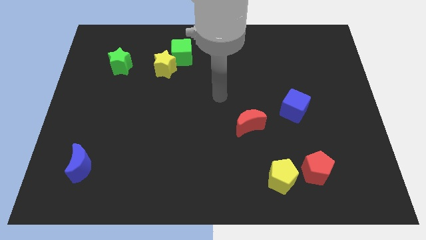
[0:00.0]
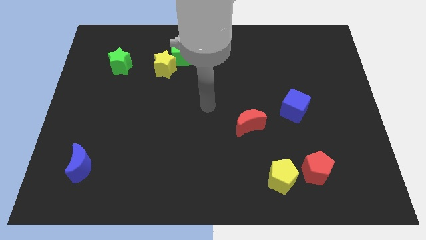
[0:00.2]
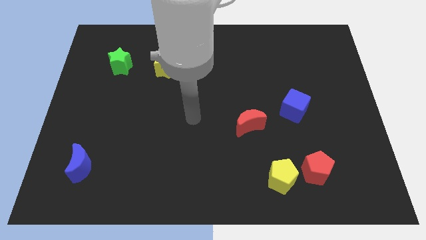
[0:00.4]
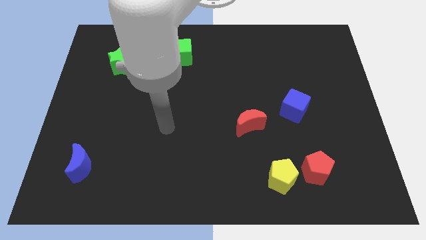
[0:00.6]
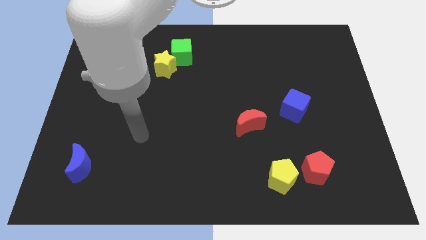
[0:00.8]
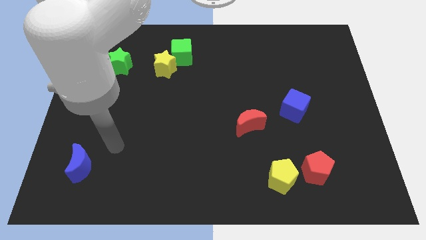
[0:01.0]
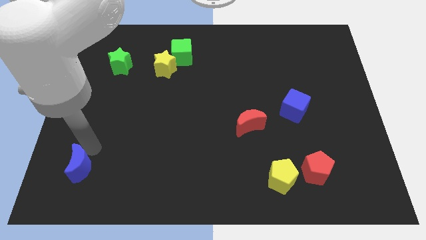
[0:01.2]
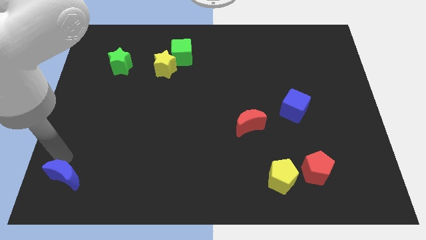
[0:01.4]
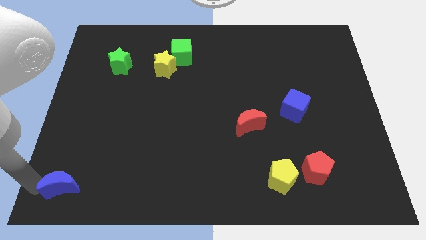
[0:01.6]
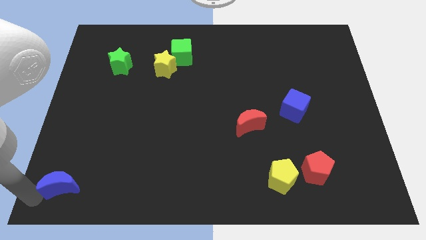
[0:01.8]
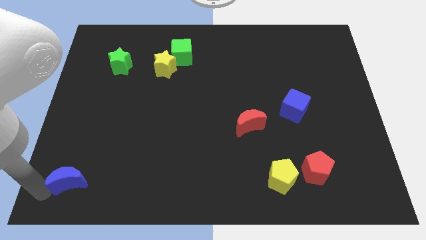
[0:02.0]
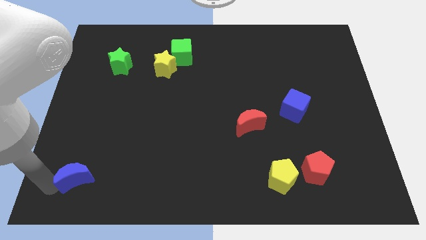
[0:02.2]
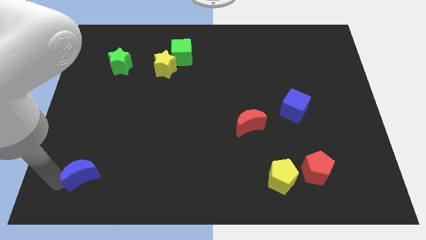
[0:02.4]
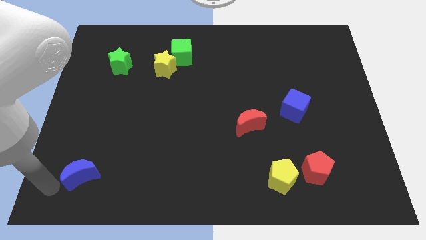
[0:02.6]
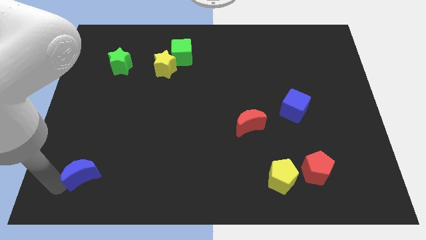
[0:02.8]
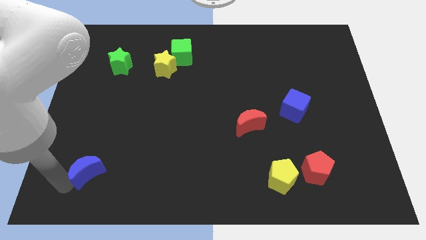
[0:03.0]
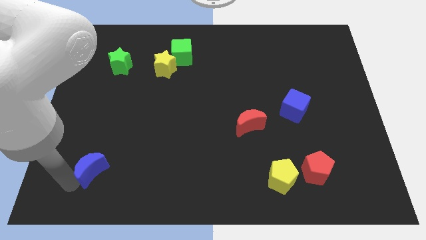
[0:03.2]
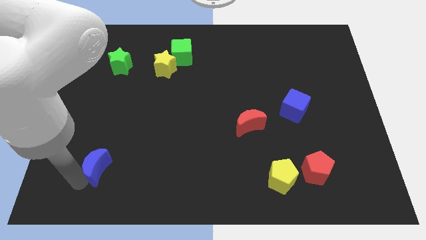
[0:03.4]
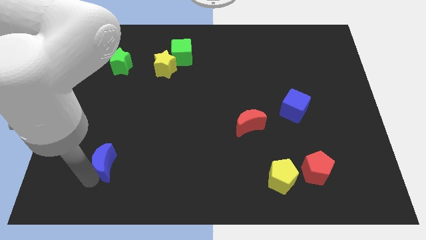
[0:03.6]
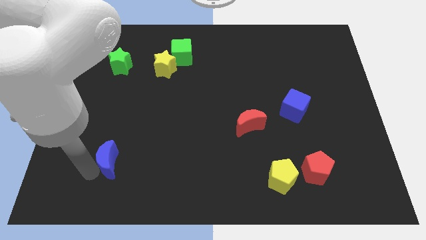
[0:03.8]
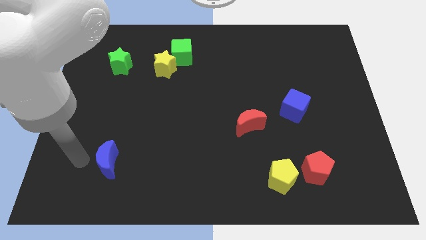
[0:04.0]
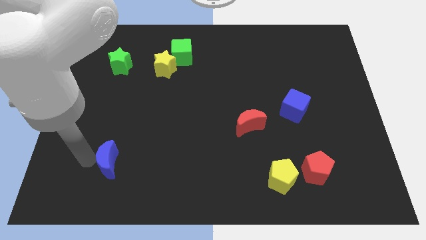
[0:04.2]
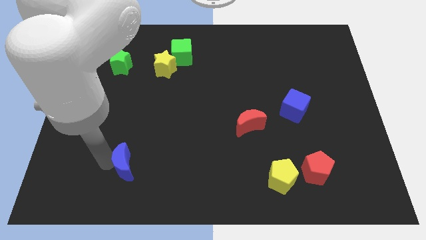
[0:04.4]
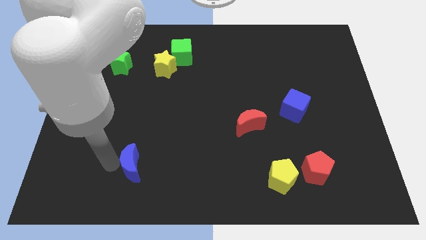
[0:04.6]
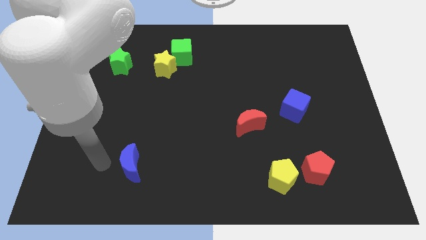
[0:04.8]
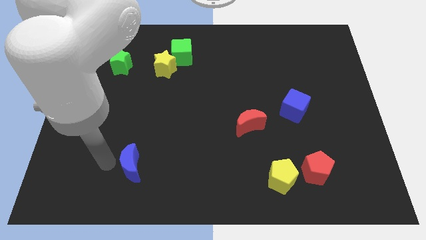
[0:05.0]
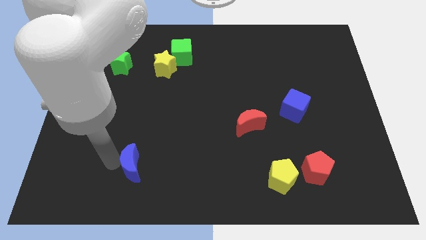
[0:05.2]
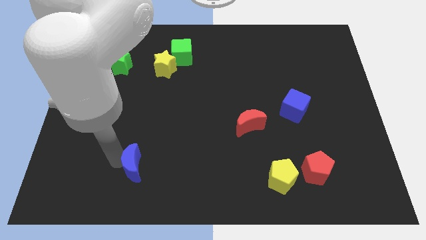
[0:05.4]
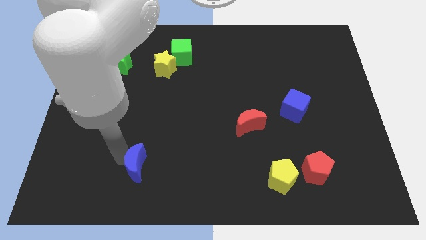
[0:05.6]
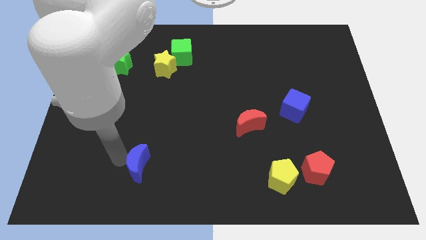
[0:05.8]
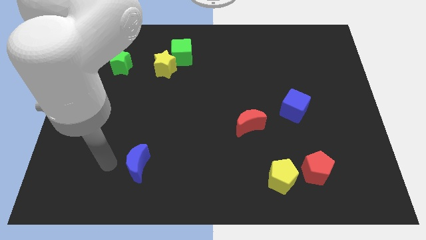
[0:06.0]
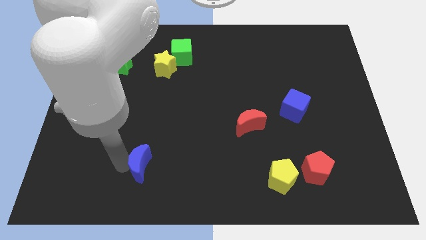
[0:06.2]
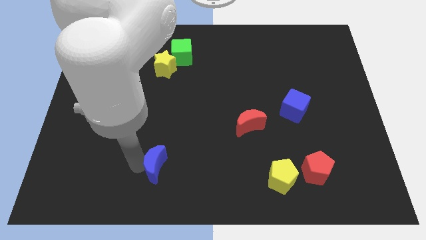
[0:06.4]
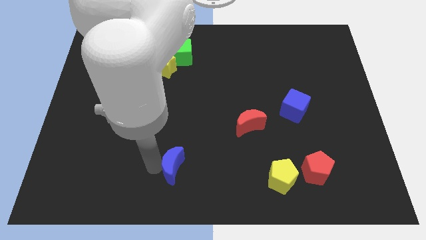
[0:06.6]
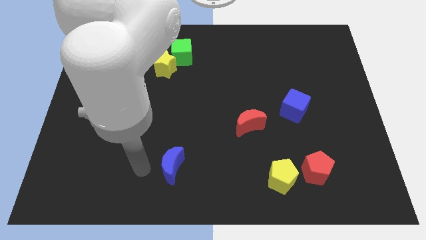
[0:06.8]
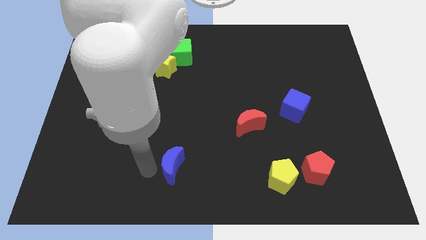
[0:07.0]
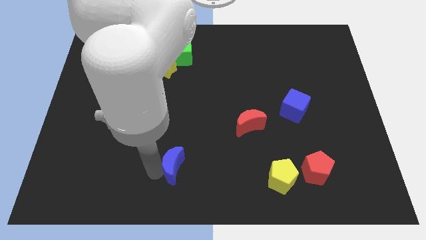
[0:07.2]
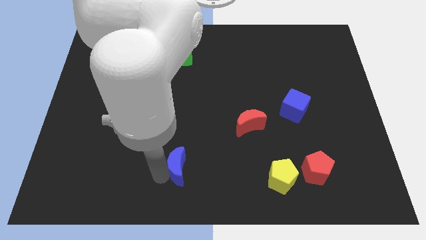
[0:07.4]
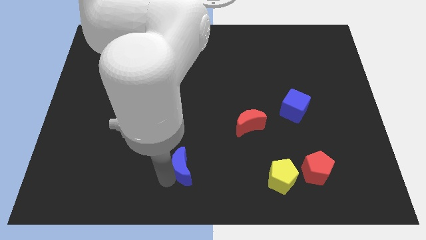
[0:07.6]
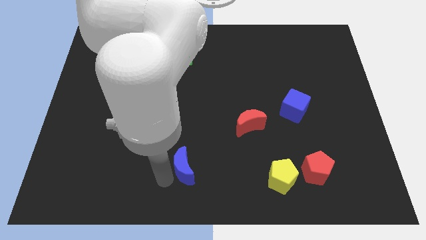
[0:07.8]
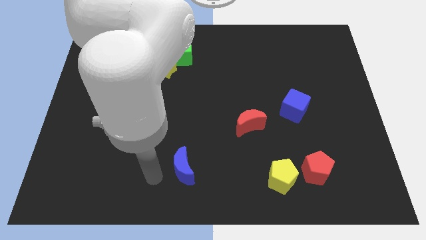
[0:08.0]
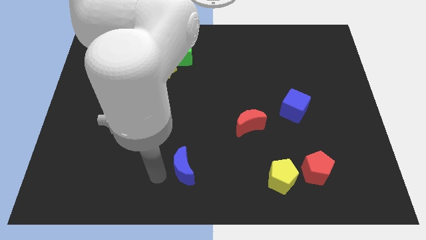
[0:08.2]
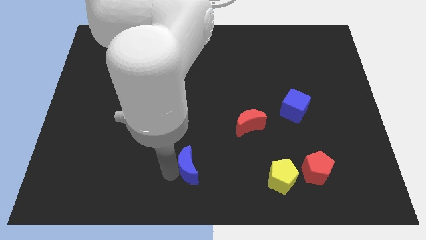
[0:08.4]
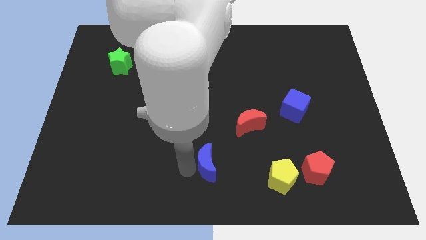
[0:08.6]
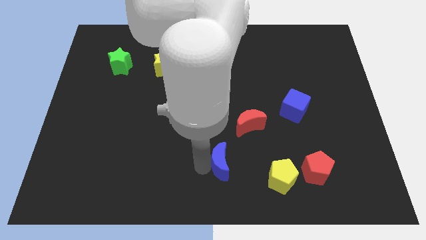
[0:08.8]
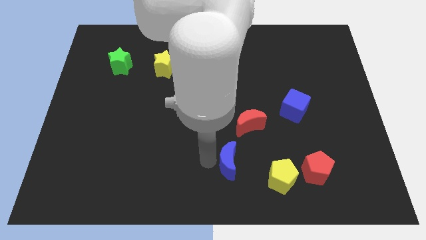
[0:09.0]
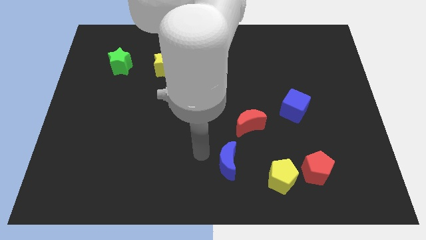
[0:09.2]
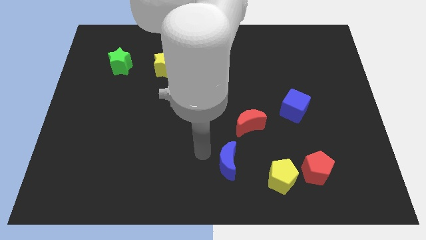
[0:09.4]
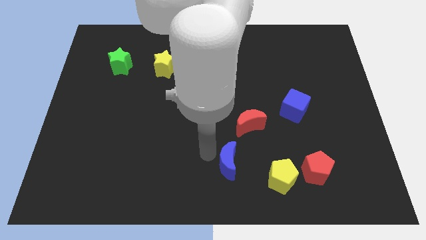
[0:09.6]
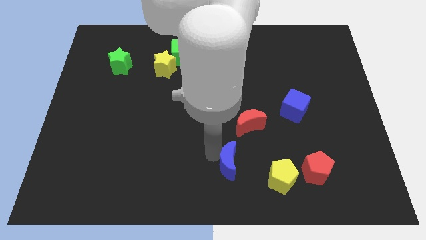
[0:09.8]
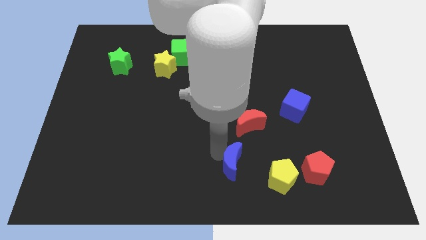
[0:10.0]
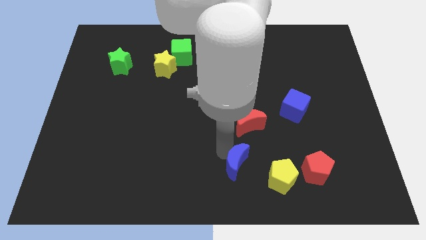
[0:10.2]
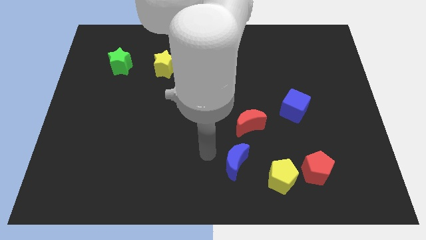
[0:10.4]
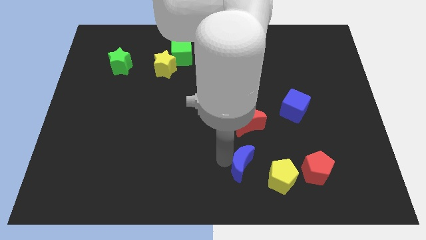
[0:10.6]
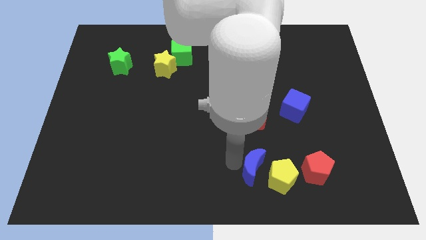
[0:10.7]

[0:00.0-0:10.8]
put the blue moon towards the yellow pentagon

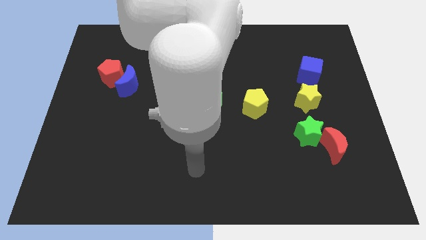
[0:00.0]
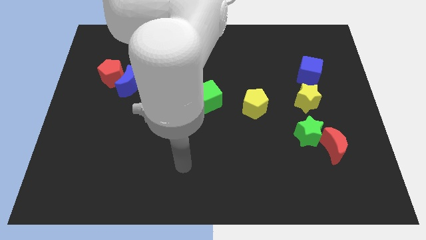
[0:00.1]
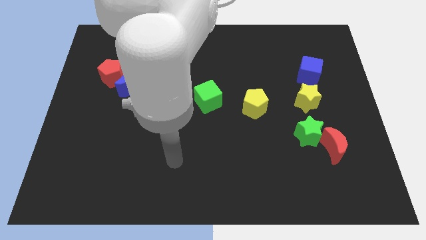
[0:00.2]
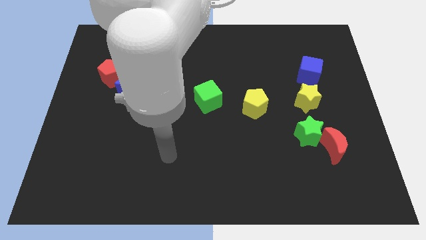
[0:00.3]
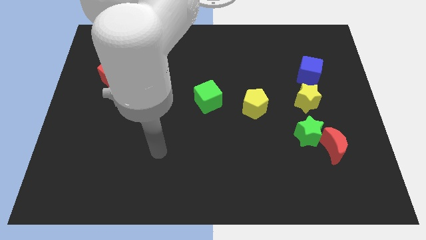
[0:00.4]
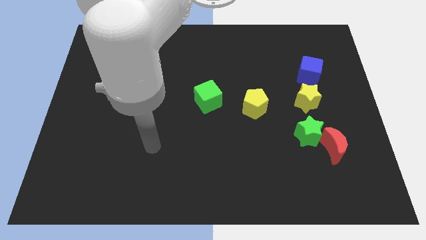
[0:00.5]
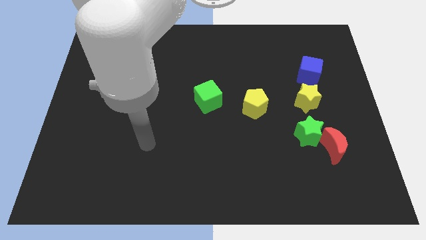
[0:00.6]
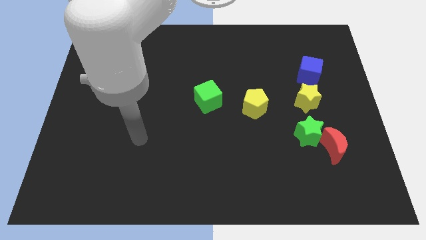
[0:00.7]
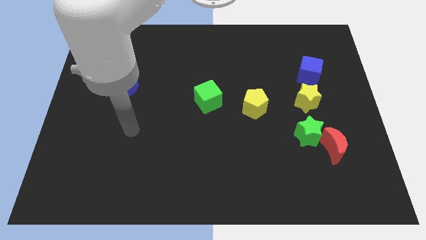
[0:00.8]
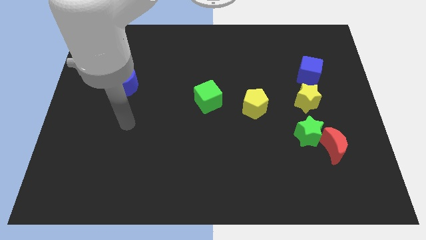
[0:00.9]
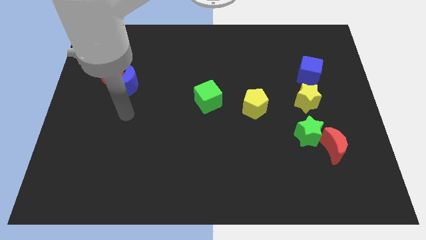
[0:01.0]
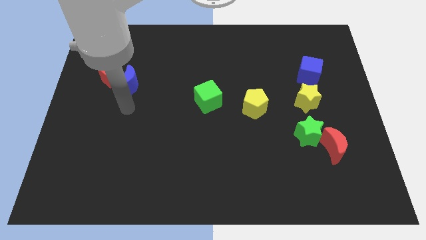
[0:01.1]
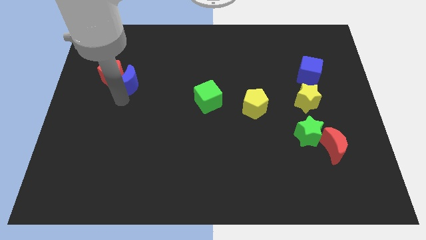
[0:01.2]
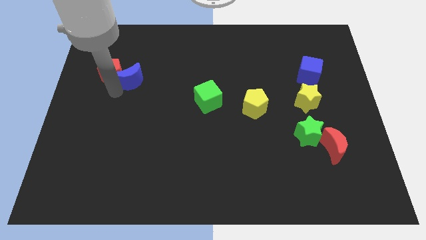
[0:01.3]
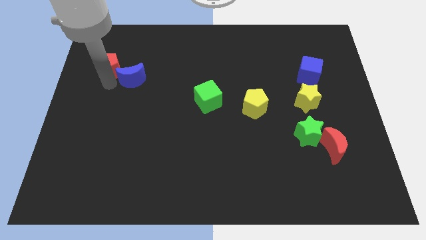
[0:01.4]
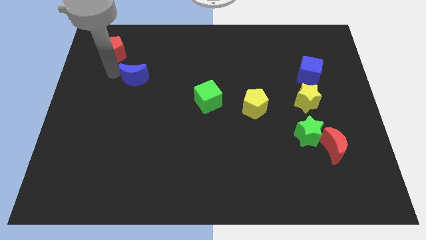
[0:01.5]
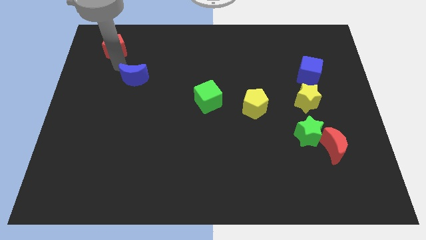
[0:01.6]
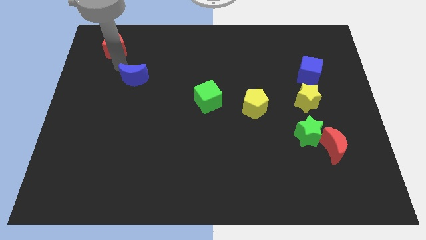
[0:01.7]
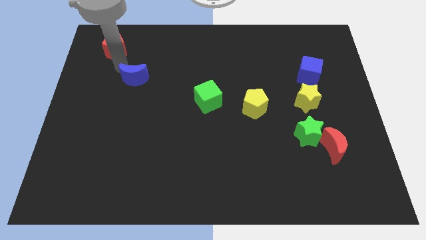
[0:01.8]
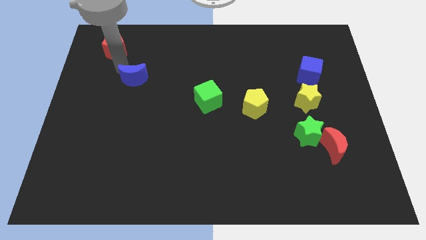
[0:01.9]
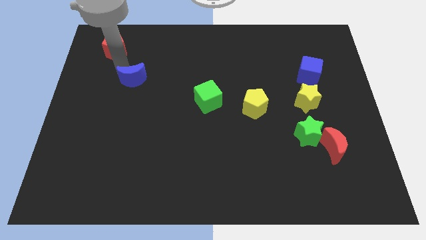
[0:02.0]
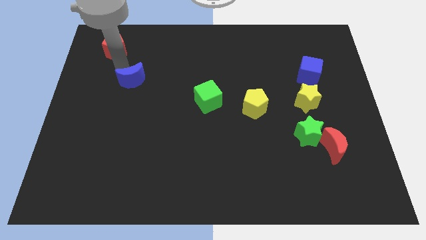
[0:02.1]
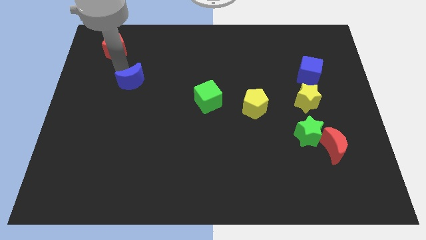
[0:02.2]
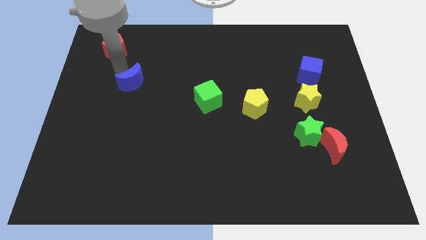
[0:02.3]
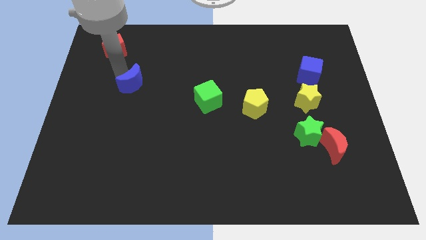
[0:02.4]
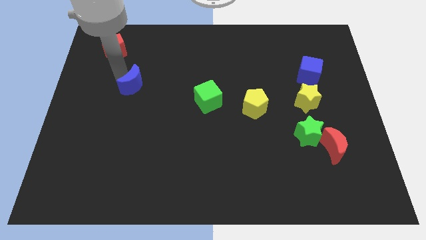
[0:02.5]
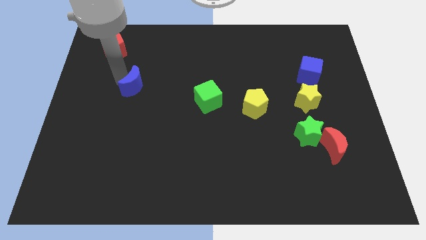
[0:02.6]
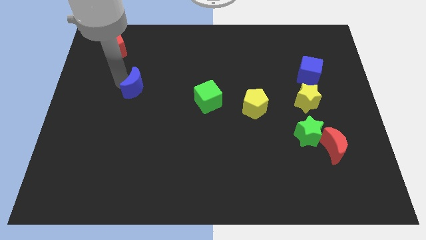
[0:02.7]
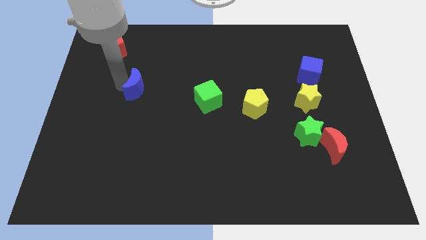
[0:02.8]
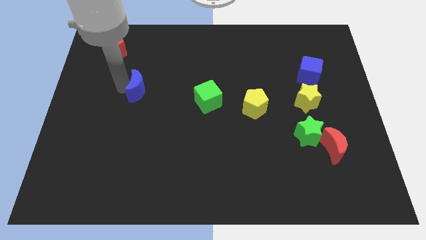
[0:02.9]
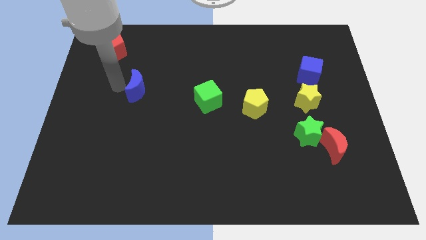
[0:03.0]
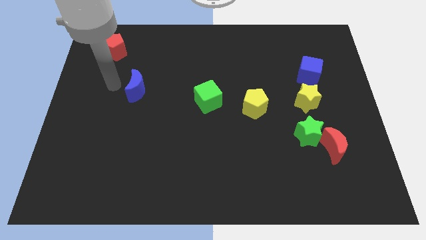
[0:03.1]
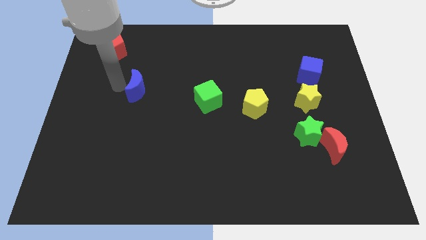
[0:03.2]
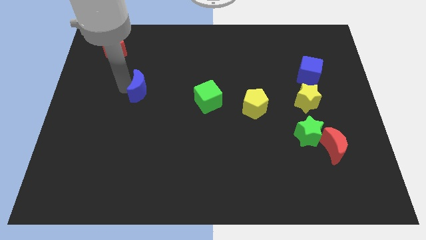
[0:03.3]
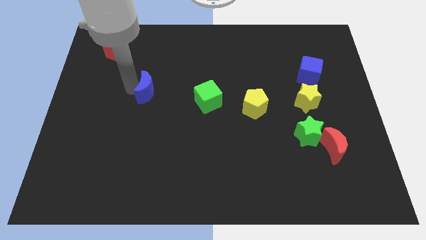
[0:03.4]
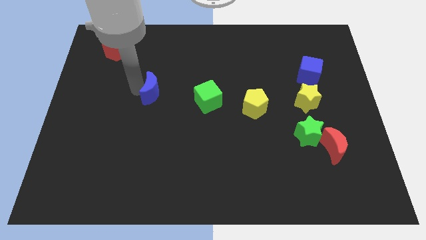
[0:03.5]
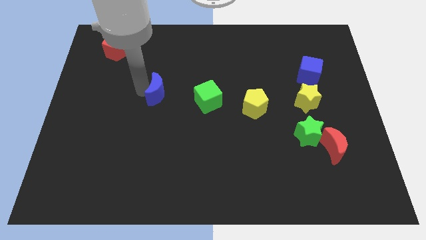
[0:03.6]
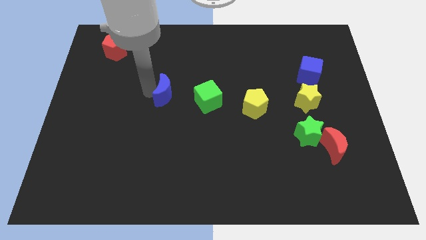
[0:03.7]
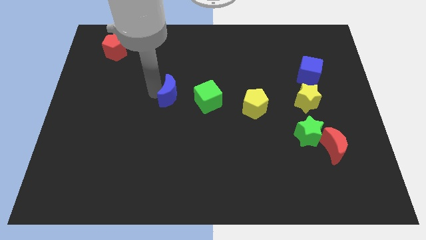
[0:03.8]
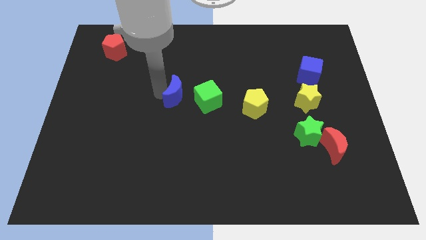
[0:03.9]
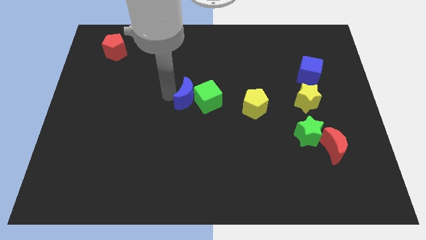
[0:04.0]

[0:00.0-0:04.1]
move the blue moon to the green cube
